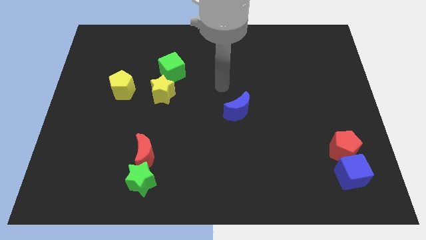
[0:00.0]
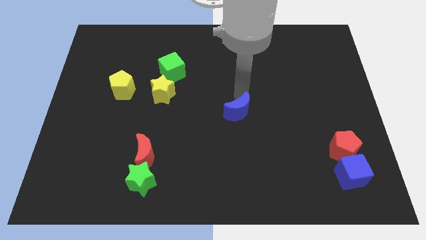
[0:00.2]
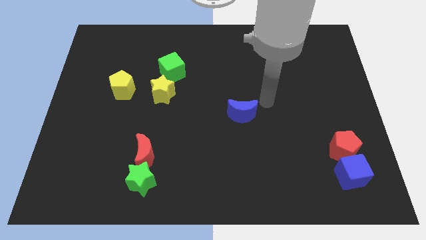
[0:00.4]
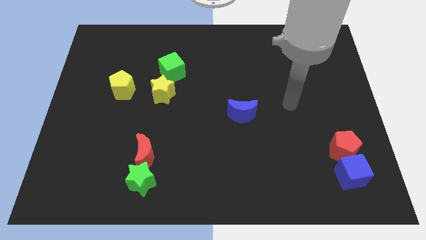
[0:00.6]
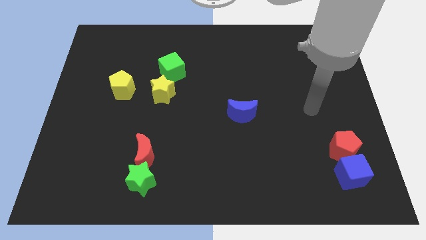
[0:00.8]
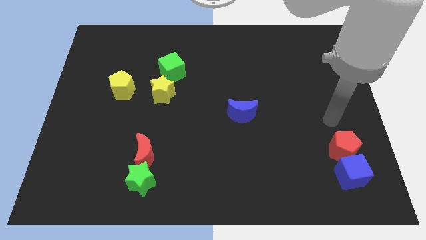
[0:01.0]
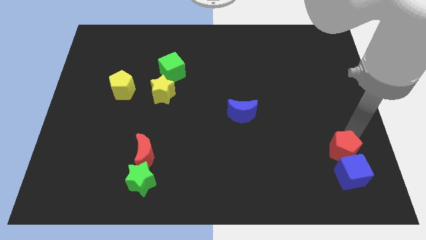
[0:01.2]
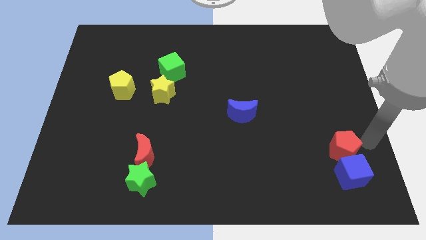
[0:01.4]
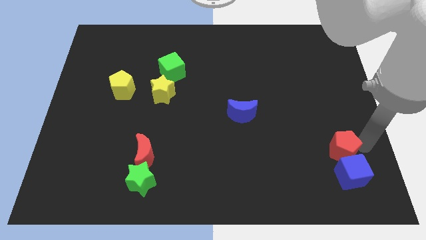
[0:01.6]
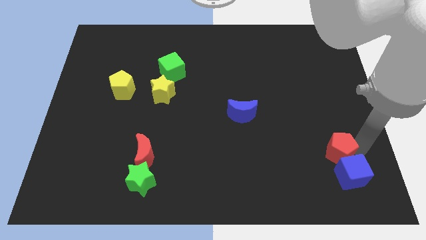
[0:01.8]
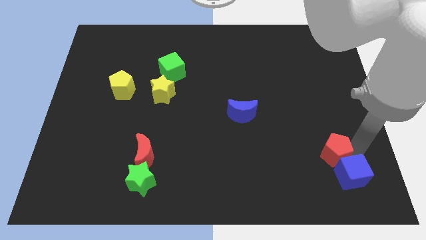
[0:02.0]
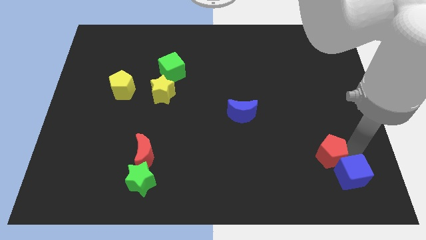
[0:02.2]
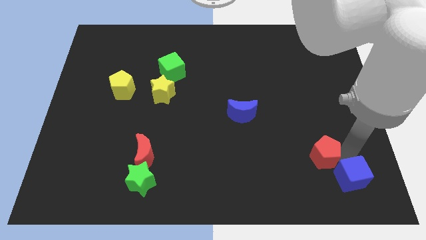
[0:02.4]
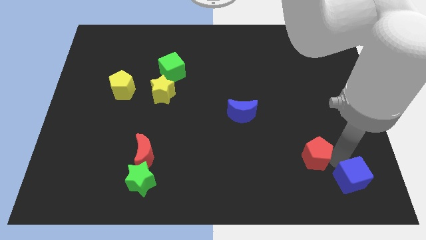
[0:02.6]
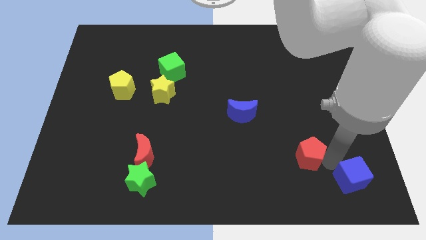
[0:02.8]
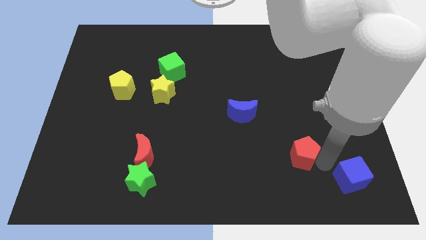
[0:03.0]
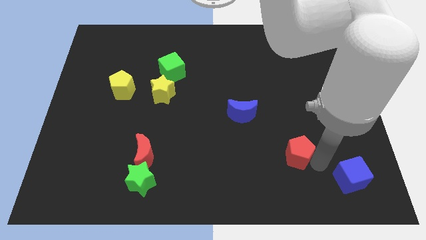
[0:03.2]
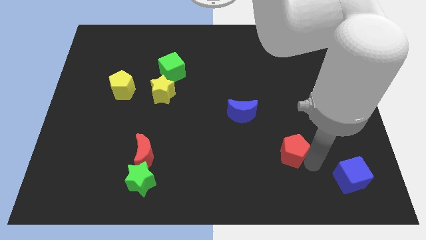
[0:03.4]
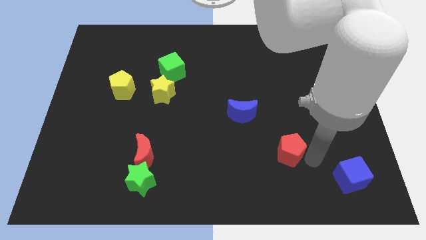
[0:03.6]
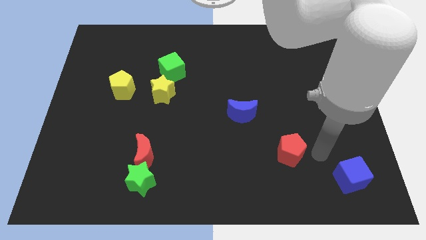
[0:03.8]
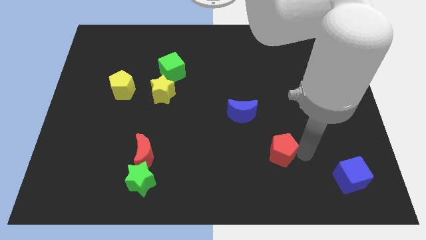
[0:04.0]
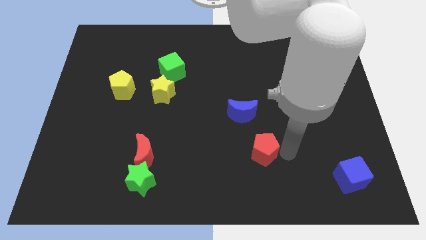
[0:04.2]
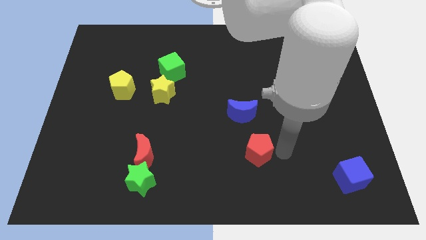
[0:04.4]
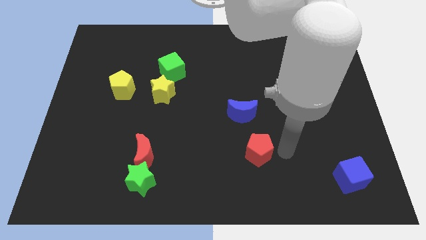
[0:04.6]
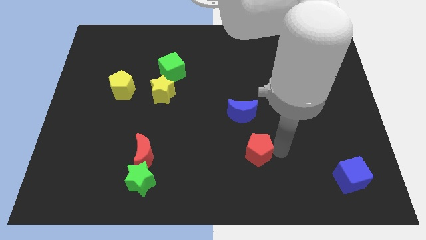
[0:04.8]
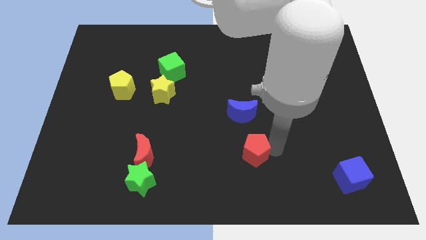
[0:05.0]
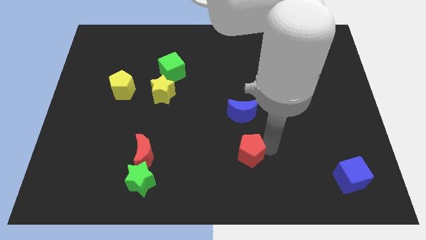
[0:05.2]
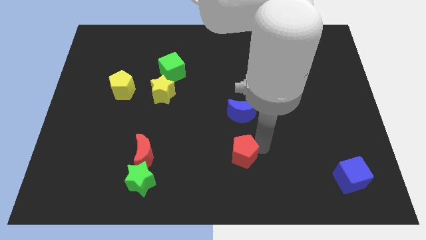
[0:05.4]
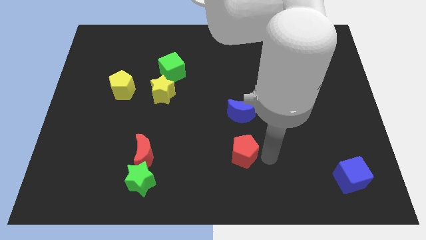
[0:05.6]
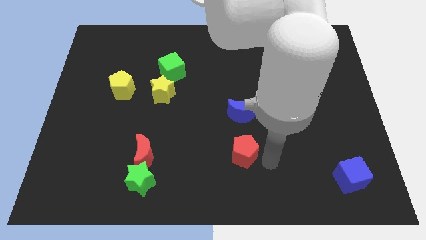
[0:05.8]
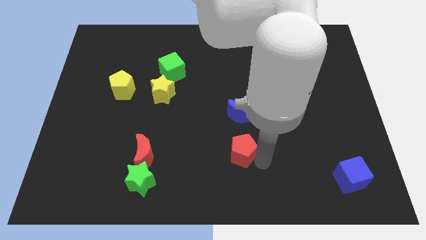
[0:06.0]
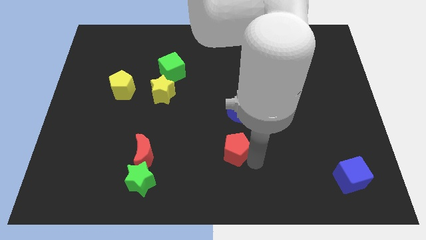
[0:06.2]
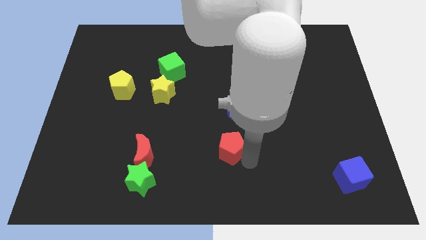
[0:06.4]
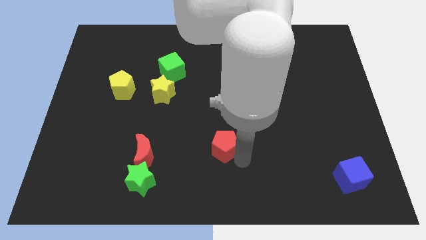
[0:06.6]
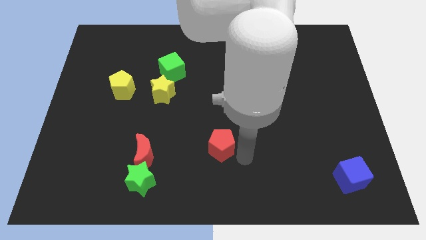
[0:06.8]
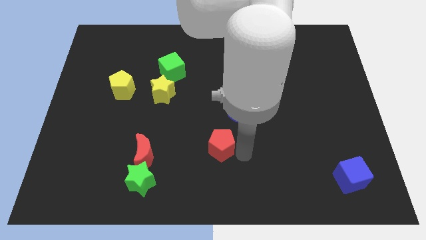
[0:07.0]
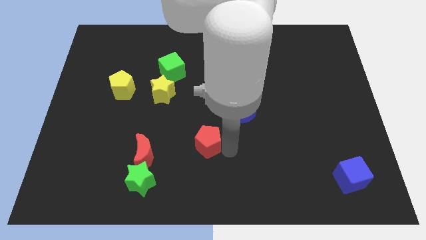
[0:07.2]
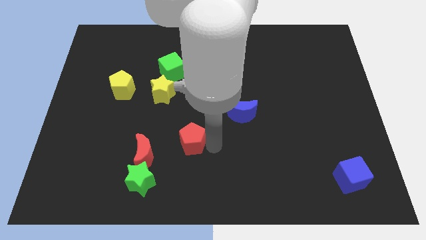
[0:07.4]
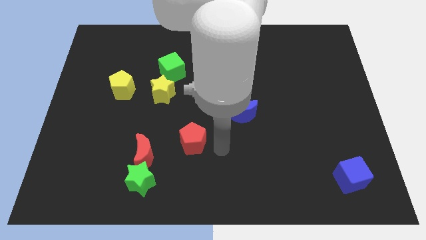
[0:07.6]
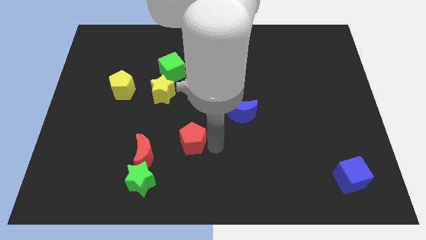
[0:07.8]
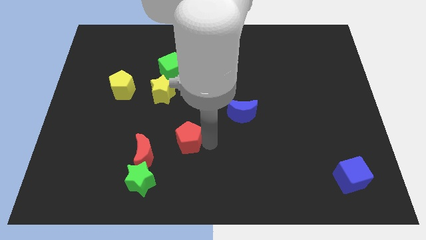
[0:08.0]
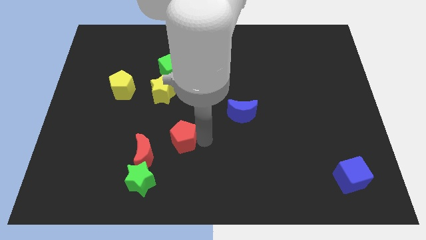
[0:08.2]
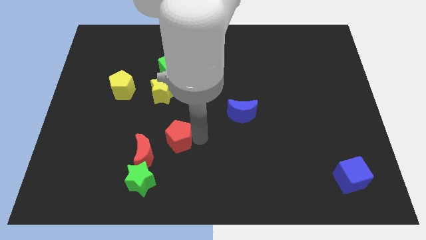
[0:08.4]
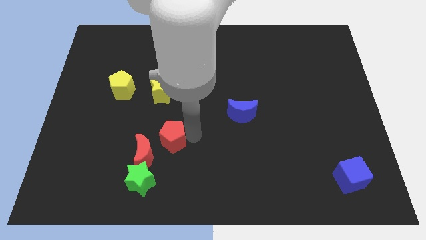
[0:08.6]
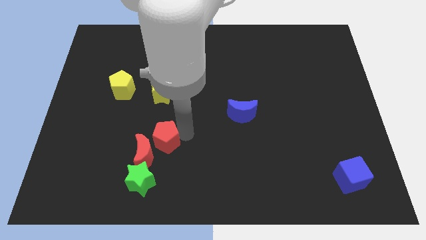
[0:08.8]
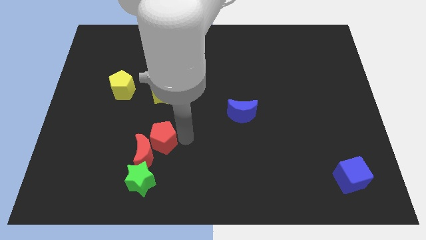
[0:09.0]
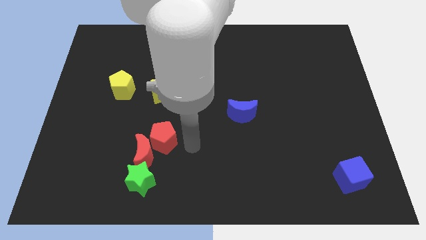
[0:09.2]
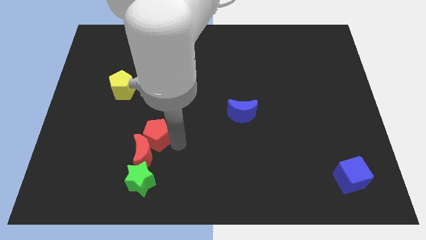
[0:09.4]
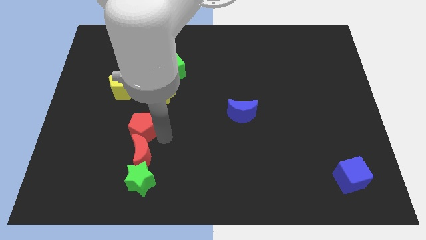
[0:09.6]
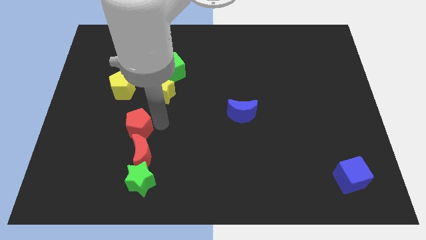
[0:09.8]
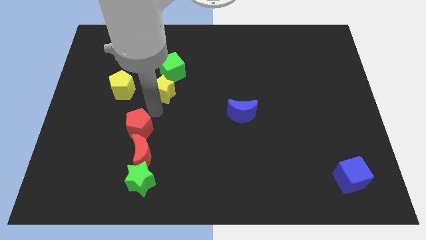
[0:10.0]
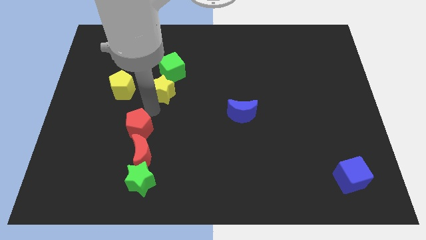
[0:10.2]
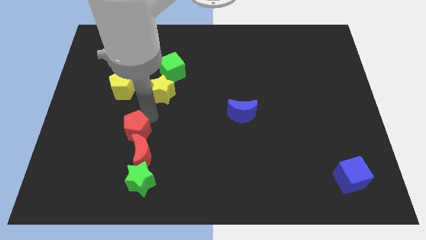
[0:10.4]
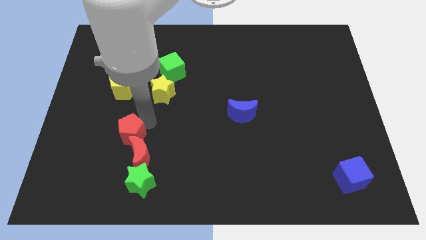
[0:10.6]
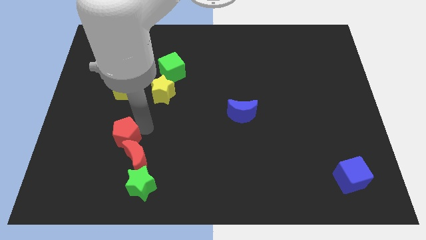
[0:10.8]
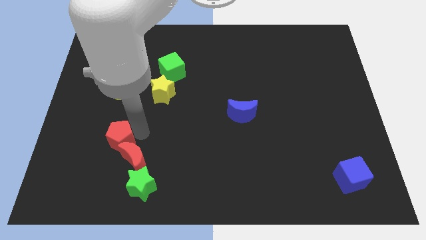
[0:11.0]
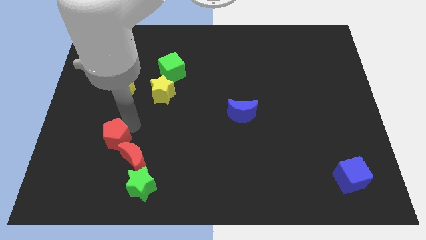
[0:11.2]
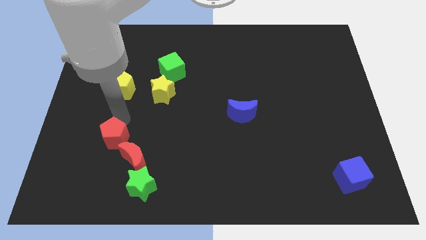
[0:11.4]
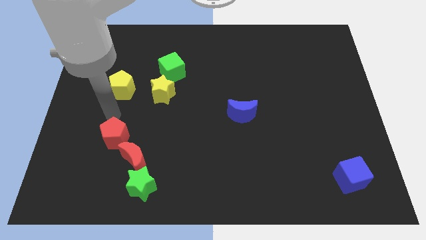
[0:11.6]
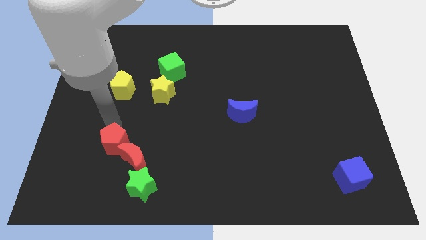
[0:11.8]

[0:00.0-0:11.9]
put the red pentagon to the top left side of the green star

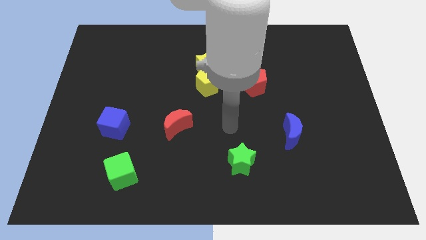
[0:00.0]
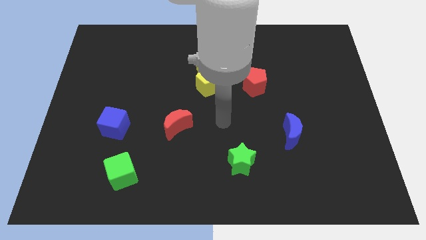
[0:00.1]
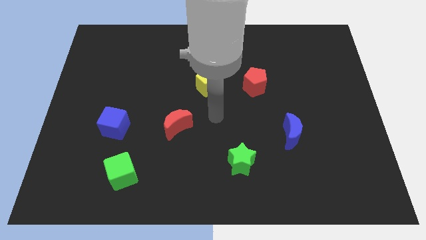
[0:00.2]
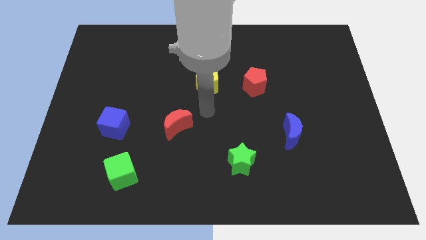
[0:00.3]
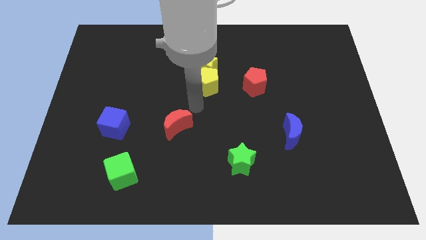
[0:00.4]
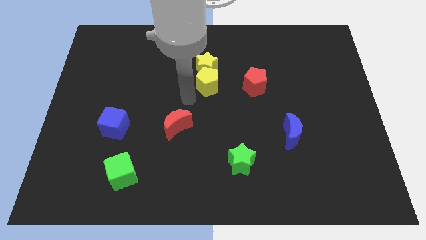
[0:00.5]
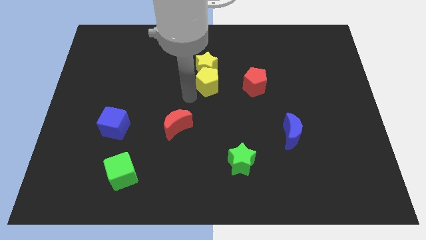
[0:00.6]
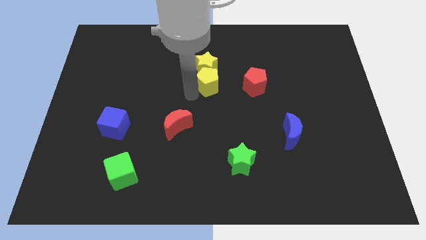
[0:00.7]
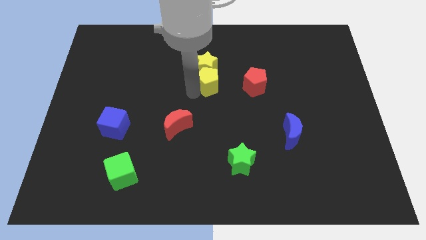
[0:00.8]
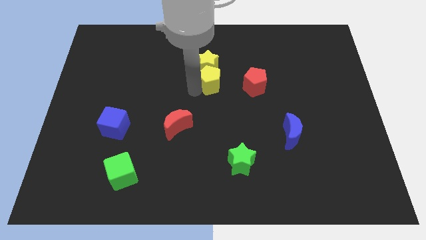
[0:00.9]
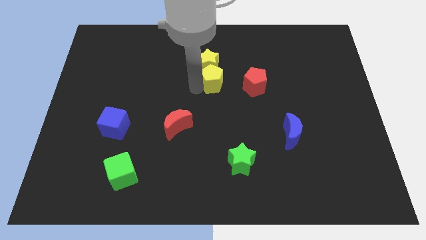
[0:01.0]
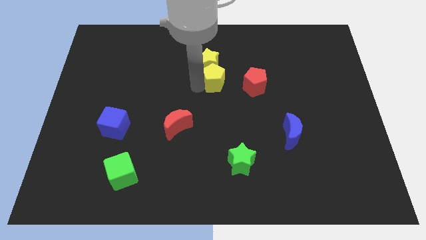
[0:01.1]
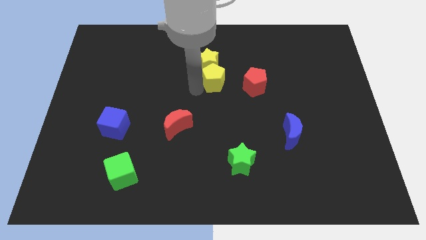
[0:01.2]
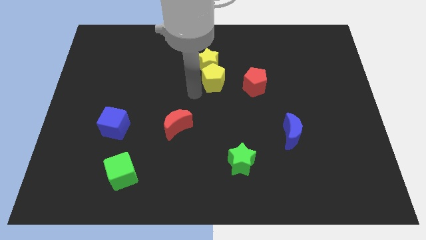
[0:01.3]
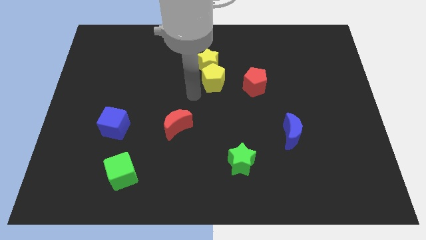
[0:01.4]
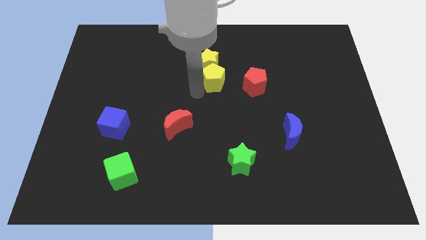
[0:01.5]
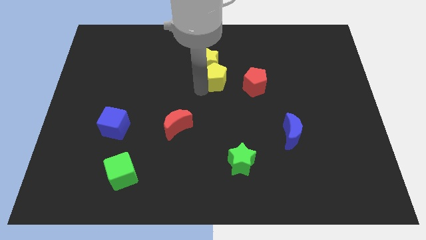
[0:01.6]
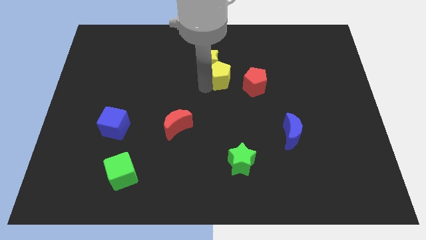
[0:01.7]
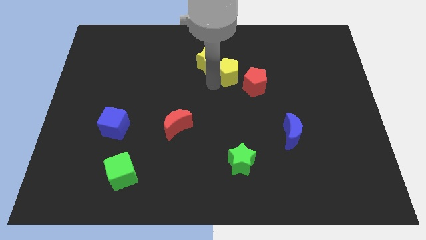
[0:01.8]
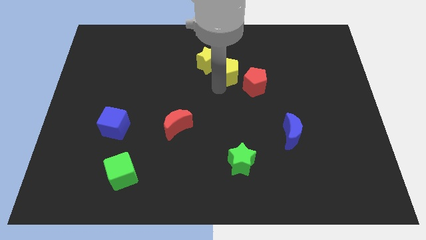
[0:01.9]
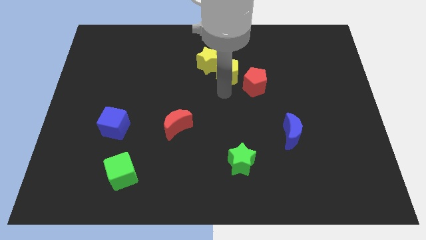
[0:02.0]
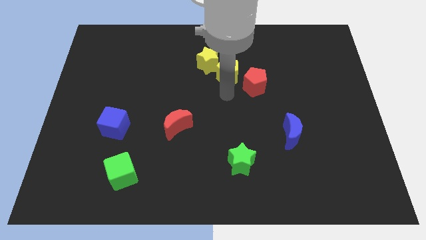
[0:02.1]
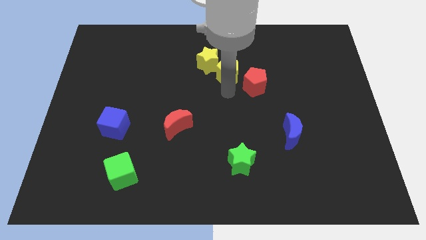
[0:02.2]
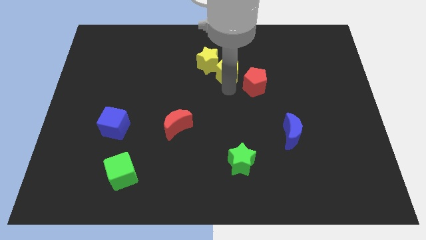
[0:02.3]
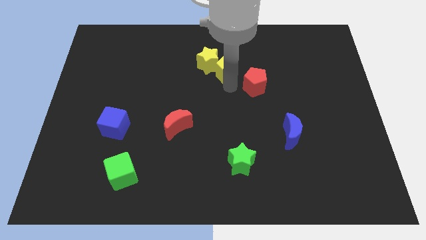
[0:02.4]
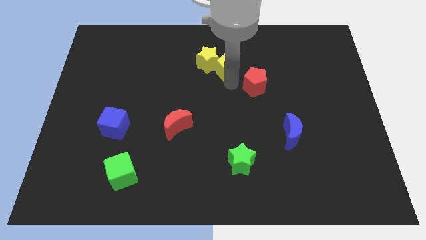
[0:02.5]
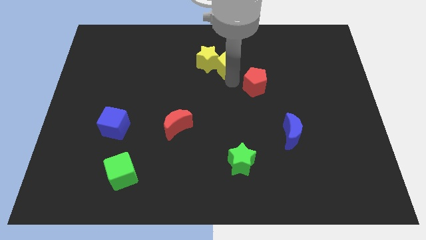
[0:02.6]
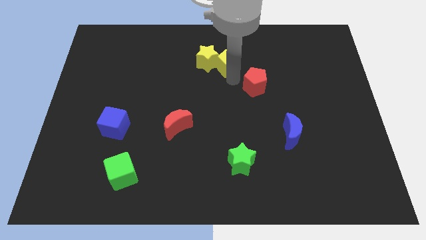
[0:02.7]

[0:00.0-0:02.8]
put the yellow pentagon diagonally up and to the right of the yellow star
